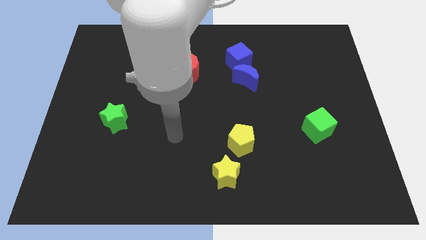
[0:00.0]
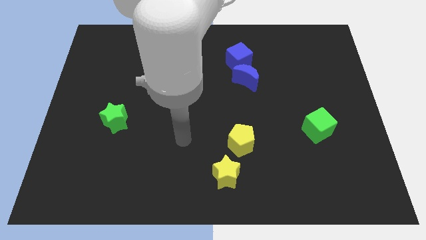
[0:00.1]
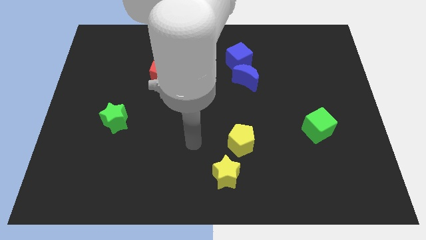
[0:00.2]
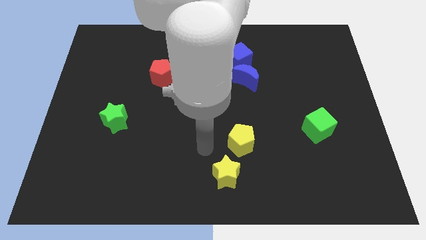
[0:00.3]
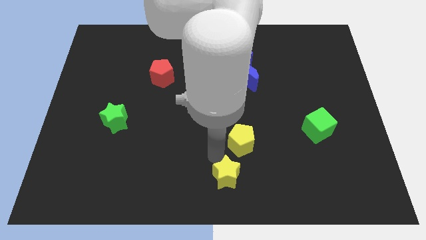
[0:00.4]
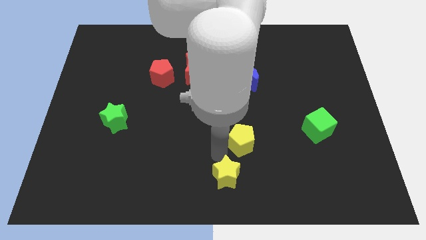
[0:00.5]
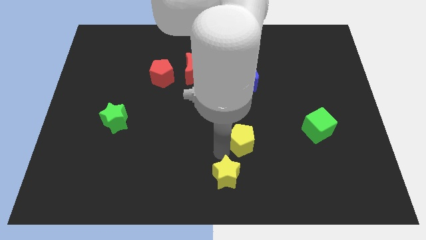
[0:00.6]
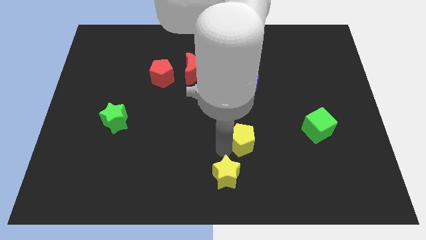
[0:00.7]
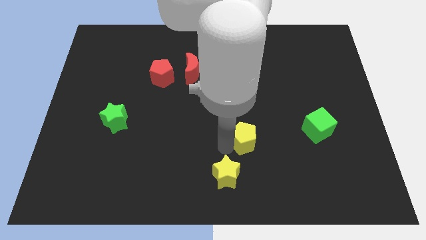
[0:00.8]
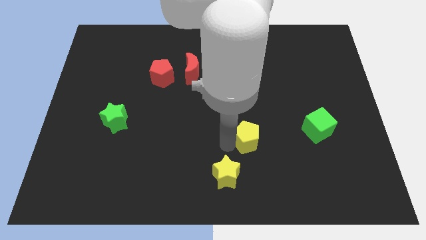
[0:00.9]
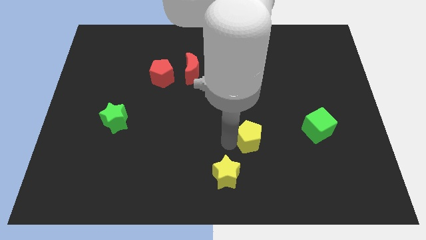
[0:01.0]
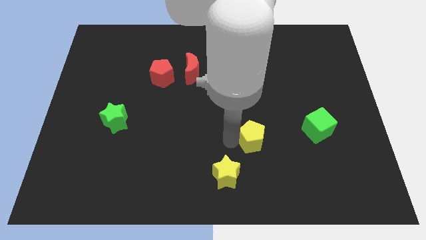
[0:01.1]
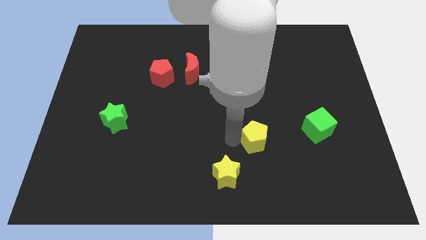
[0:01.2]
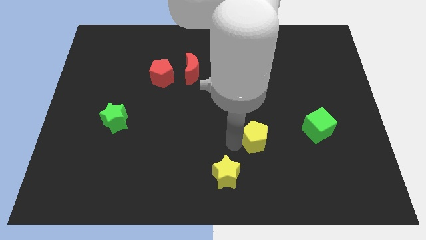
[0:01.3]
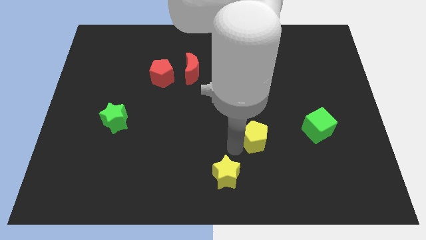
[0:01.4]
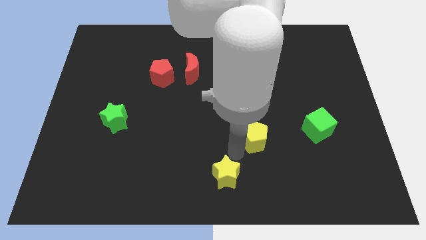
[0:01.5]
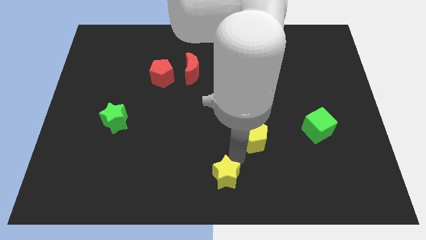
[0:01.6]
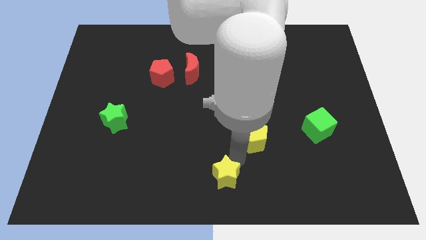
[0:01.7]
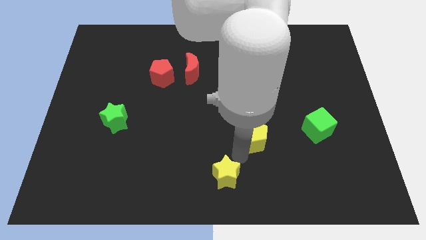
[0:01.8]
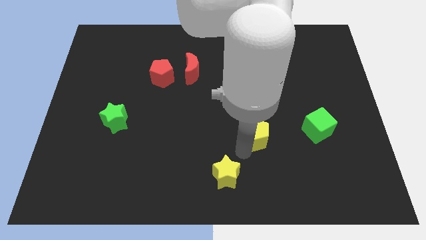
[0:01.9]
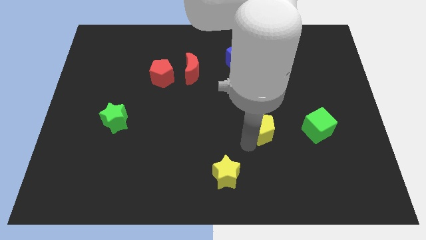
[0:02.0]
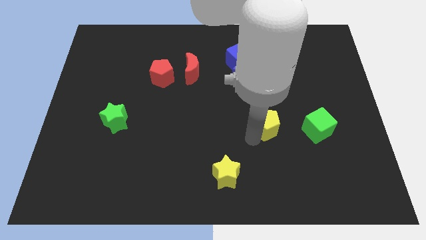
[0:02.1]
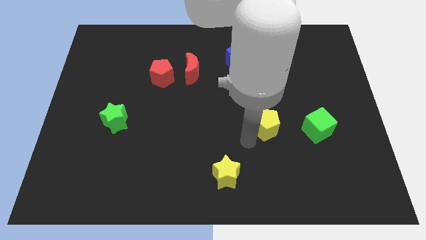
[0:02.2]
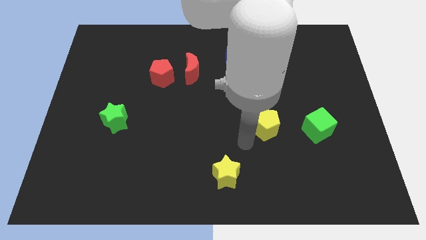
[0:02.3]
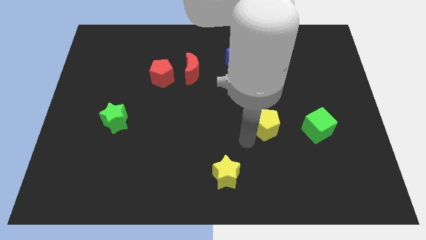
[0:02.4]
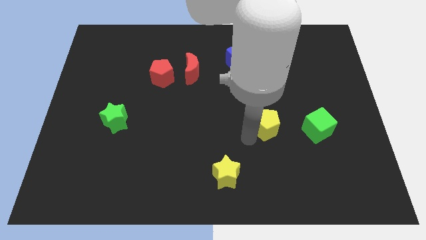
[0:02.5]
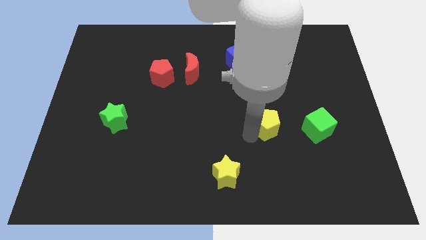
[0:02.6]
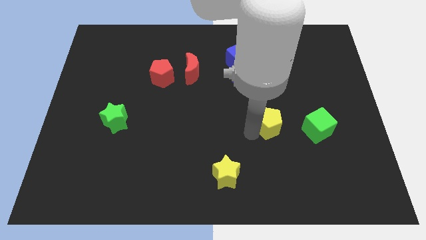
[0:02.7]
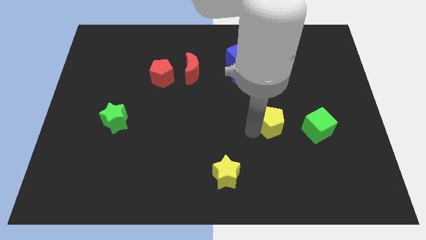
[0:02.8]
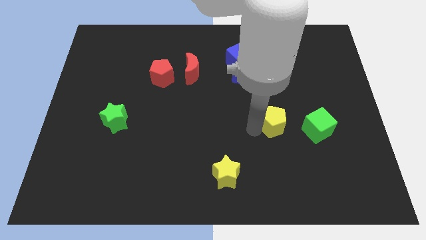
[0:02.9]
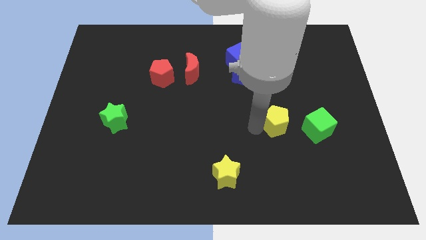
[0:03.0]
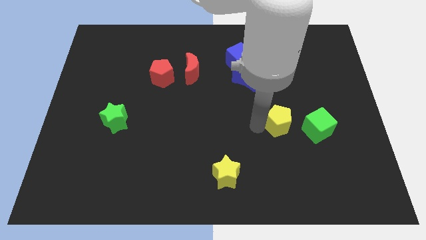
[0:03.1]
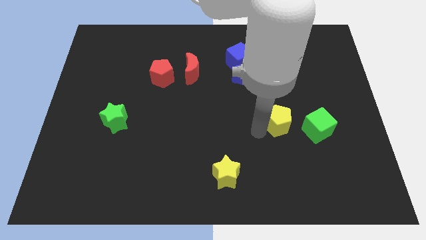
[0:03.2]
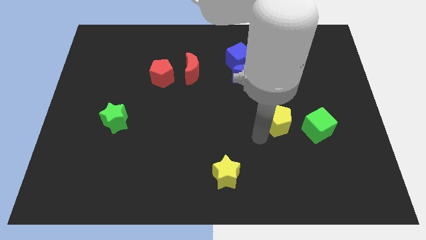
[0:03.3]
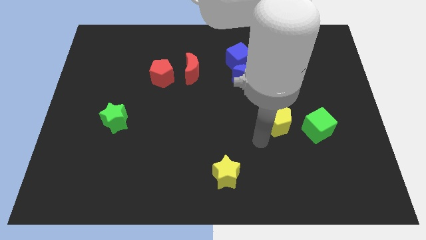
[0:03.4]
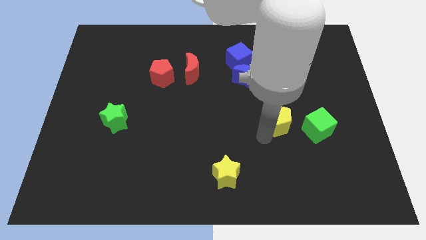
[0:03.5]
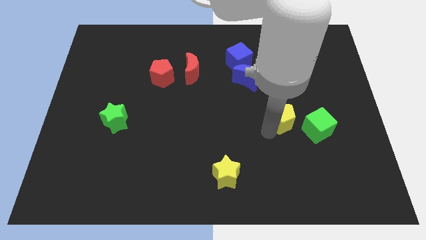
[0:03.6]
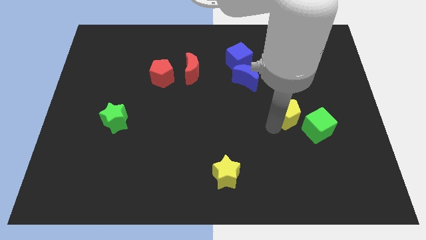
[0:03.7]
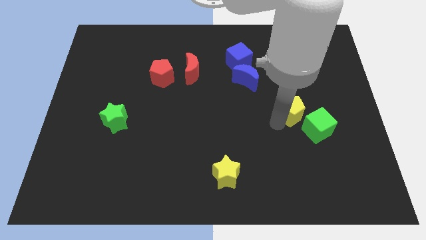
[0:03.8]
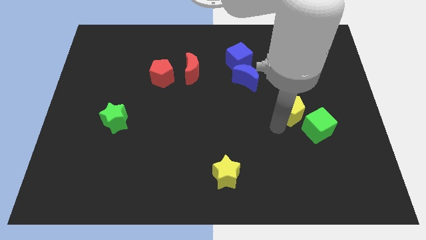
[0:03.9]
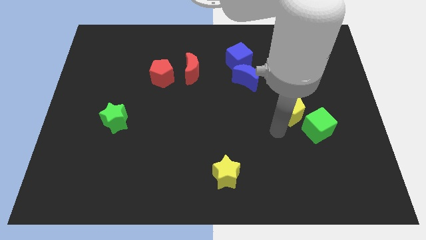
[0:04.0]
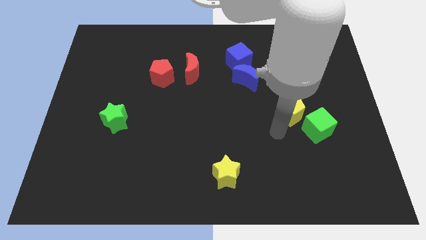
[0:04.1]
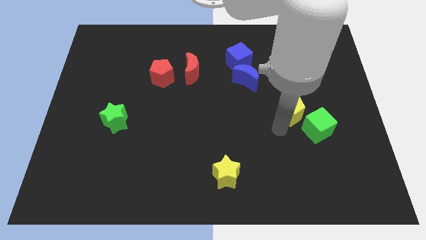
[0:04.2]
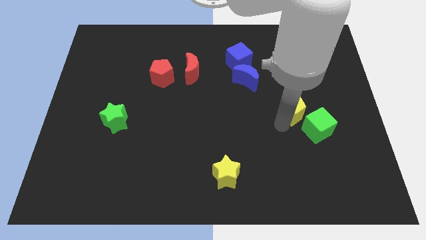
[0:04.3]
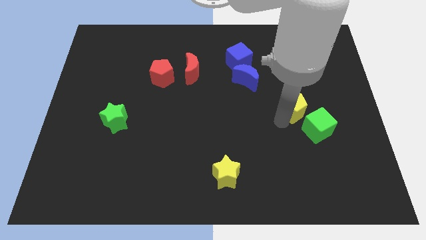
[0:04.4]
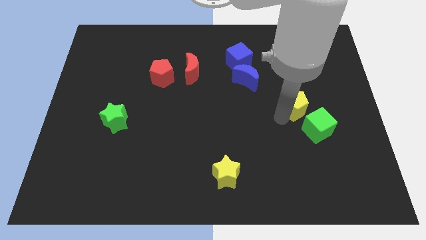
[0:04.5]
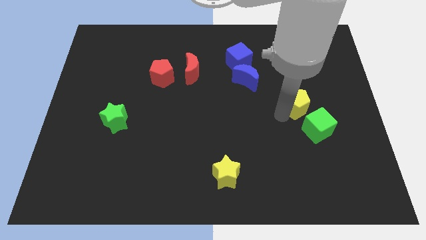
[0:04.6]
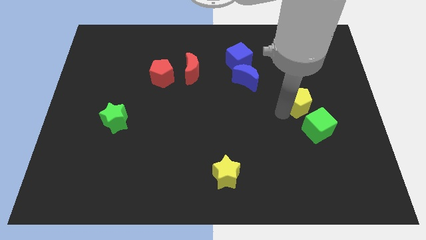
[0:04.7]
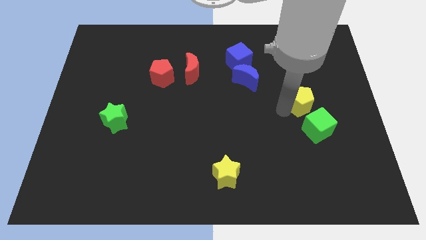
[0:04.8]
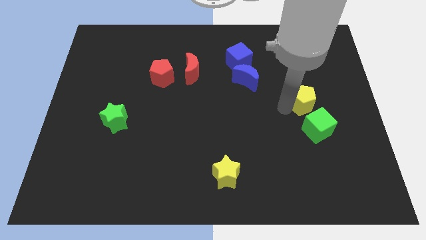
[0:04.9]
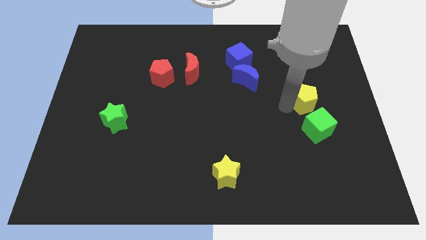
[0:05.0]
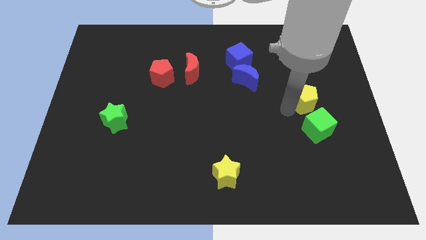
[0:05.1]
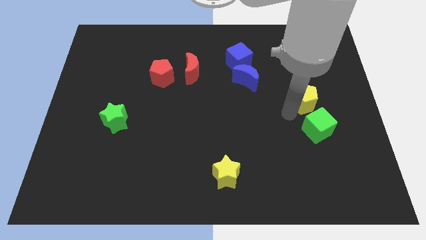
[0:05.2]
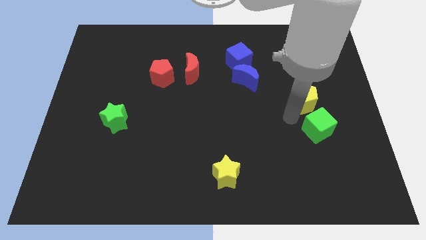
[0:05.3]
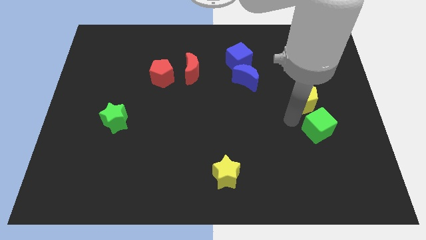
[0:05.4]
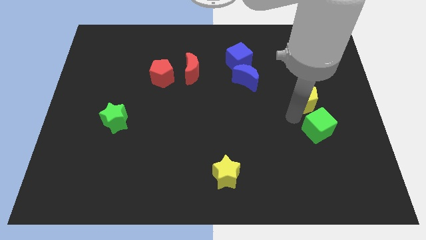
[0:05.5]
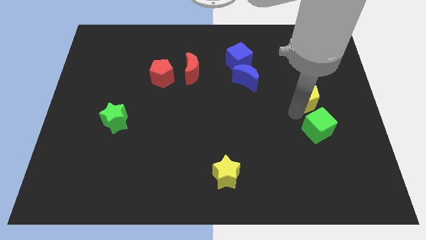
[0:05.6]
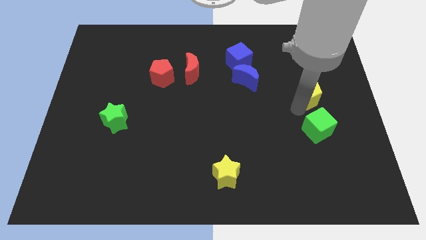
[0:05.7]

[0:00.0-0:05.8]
slide the yellow pentagon diagonally upwards and right

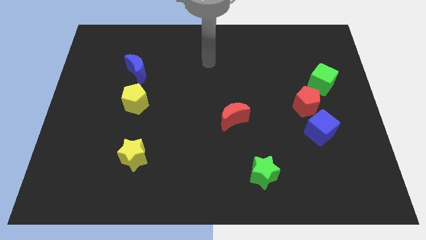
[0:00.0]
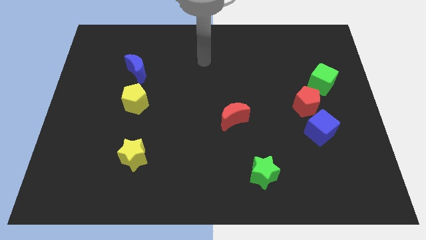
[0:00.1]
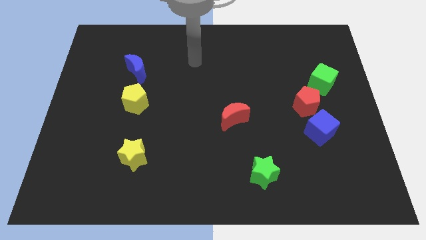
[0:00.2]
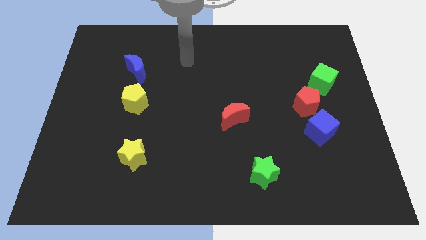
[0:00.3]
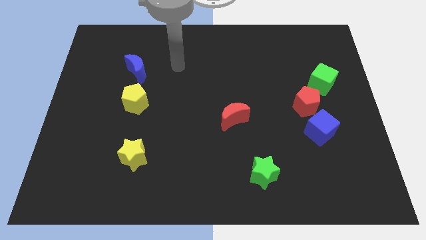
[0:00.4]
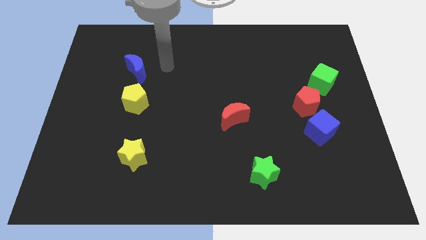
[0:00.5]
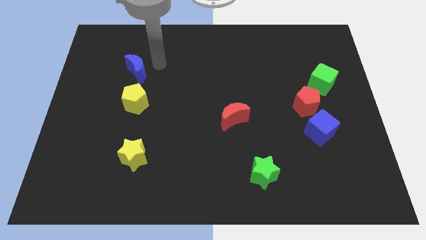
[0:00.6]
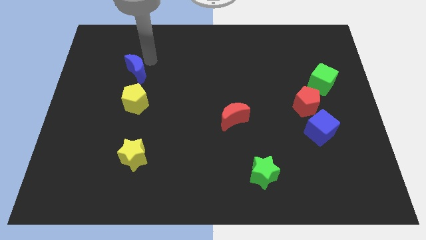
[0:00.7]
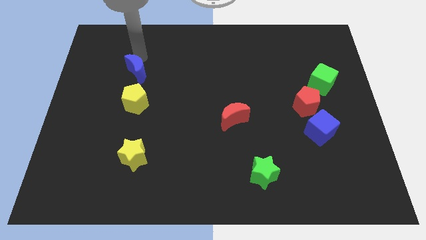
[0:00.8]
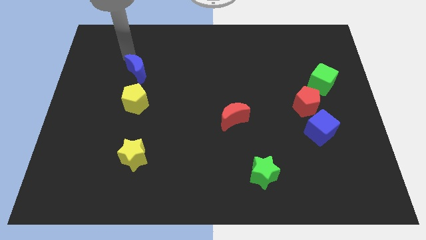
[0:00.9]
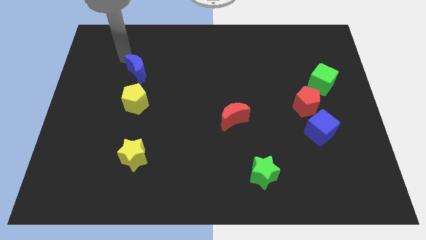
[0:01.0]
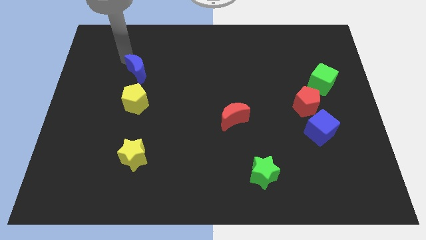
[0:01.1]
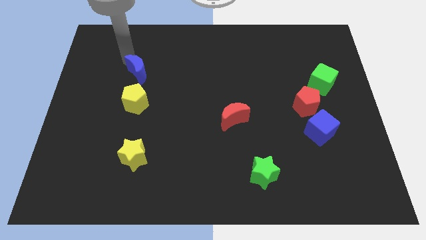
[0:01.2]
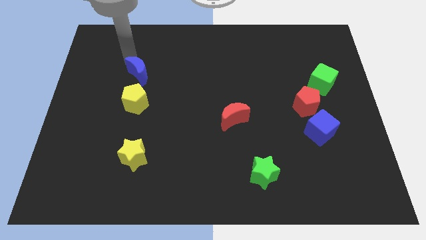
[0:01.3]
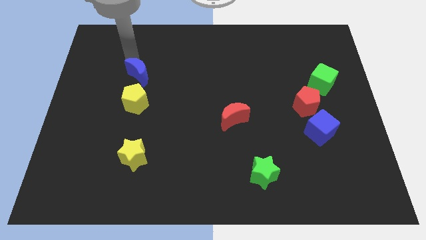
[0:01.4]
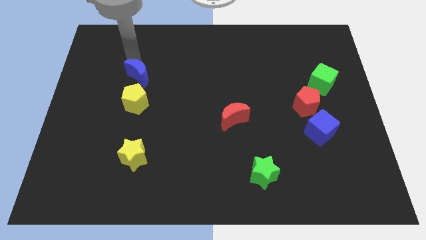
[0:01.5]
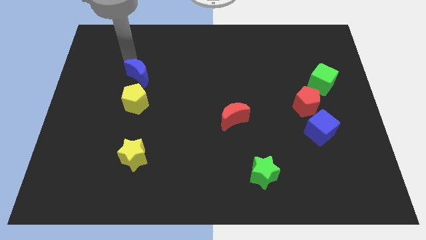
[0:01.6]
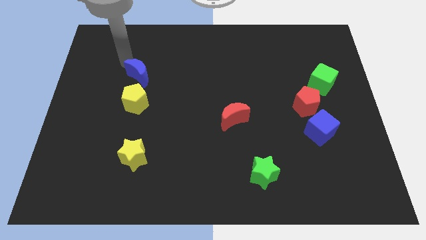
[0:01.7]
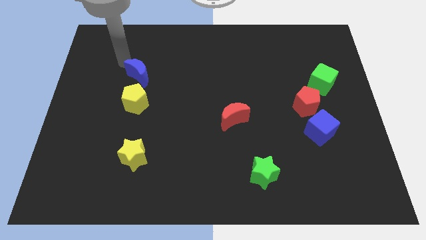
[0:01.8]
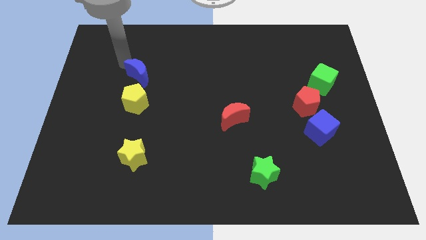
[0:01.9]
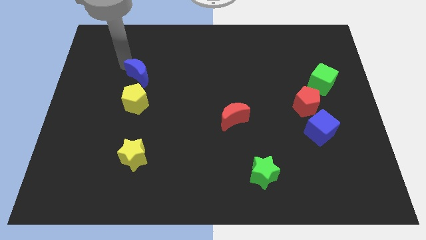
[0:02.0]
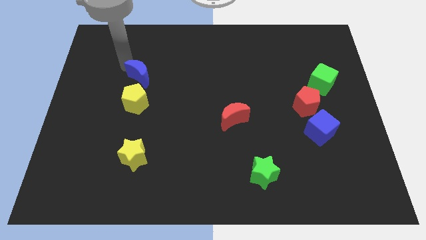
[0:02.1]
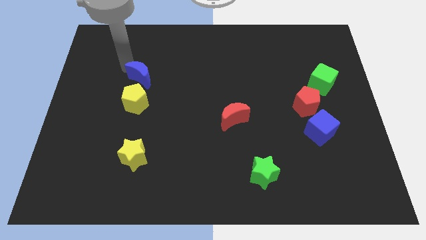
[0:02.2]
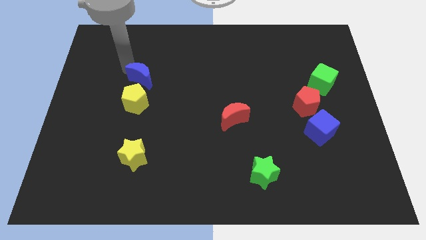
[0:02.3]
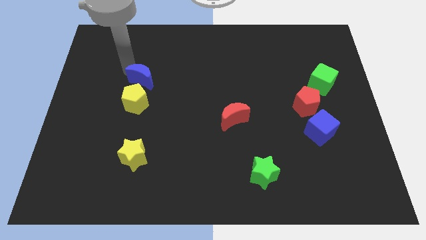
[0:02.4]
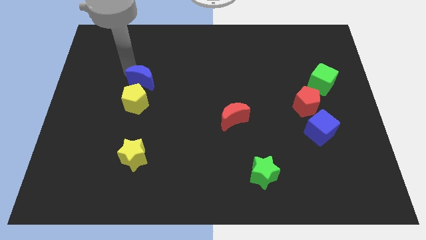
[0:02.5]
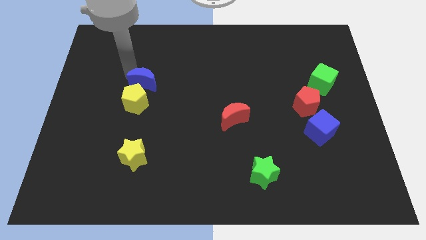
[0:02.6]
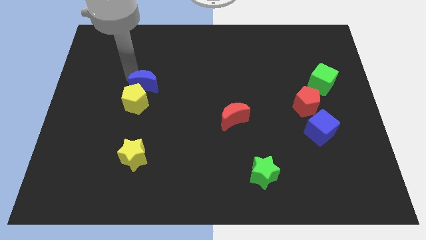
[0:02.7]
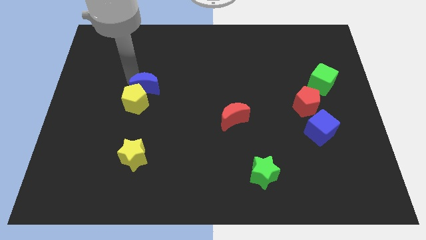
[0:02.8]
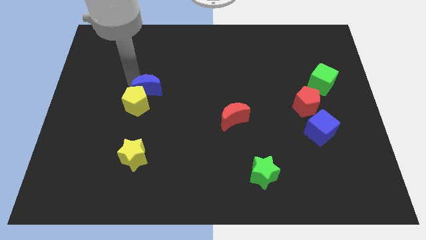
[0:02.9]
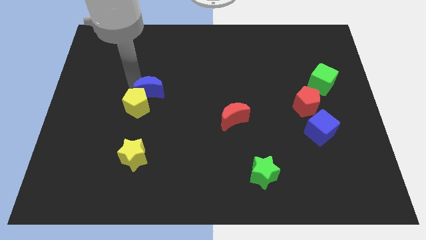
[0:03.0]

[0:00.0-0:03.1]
move the blue moon a little down and then right
